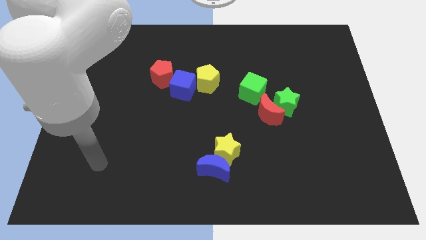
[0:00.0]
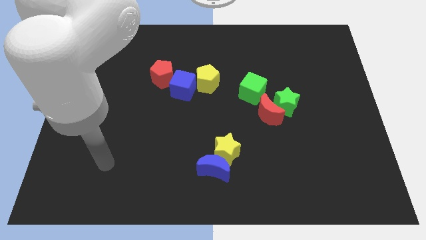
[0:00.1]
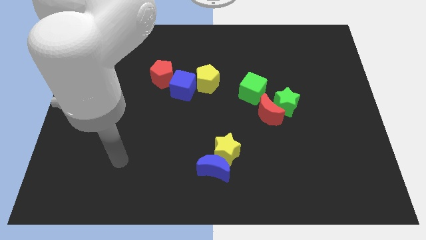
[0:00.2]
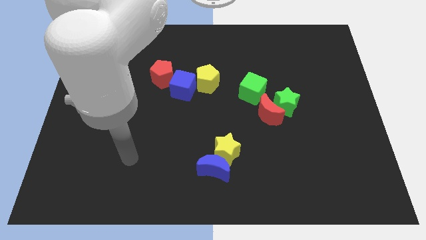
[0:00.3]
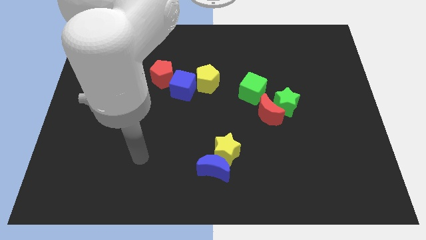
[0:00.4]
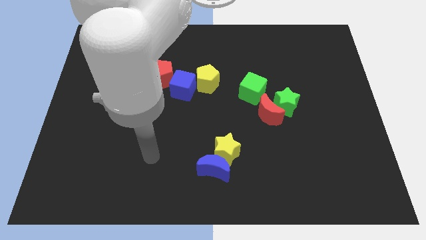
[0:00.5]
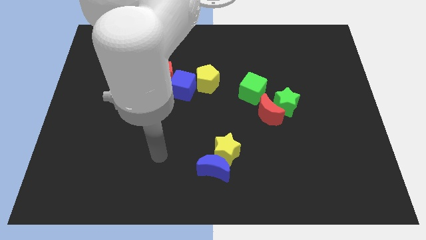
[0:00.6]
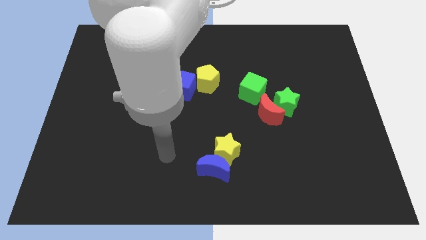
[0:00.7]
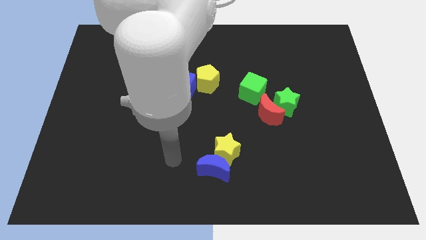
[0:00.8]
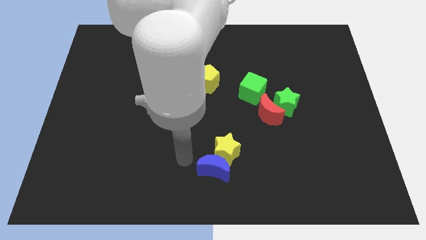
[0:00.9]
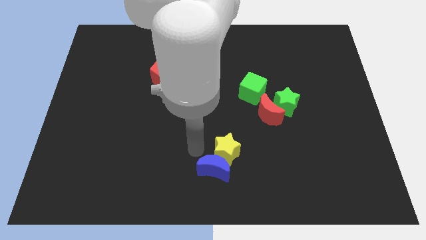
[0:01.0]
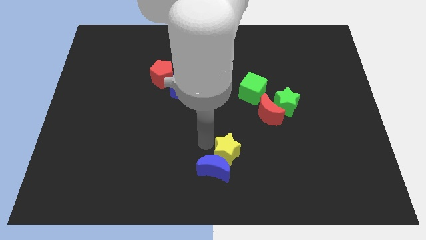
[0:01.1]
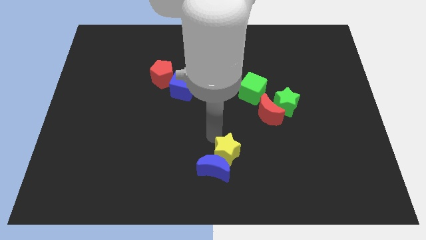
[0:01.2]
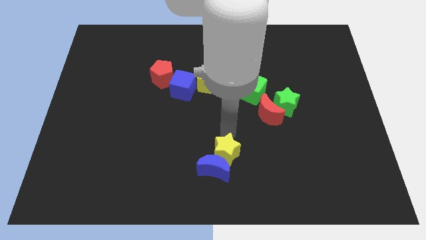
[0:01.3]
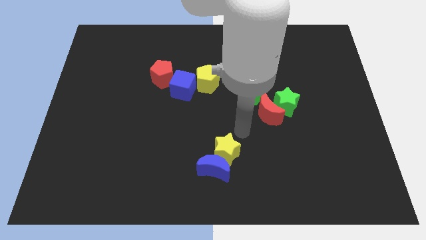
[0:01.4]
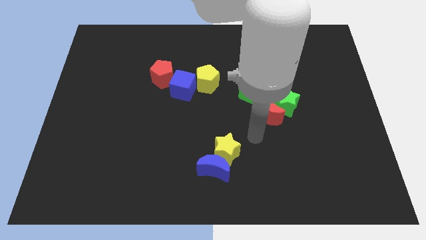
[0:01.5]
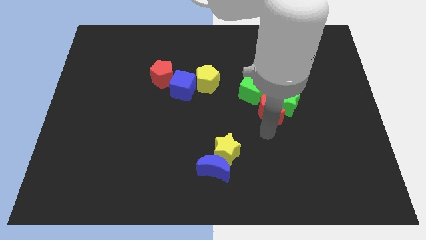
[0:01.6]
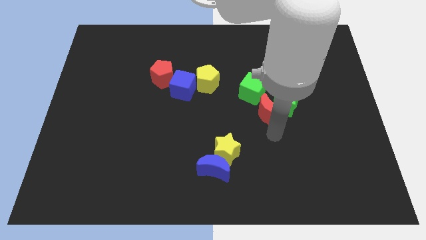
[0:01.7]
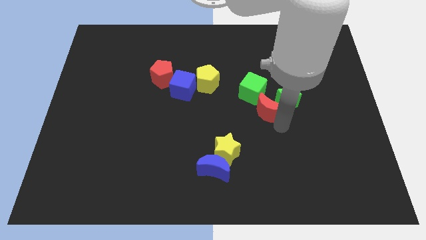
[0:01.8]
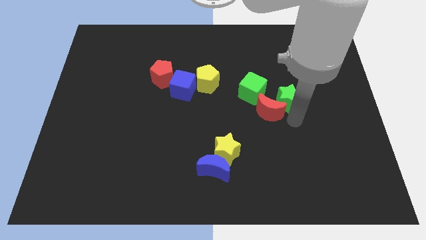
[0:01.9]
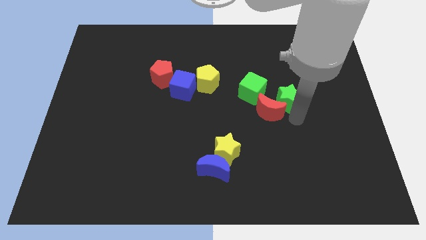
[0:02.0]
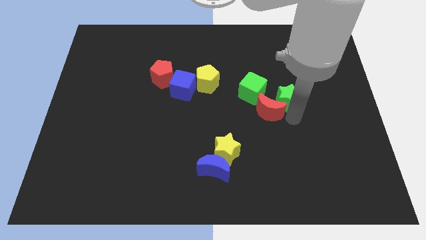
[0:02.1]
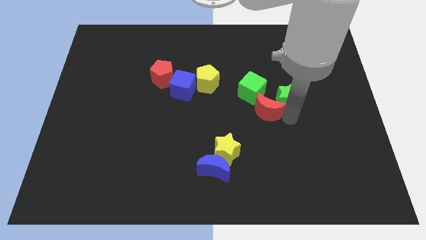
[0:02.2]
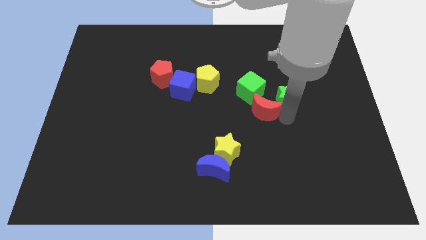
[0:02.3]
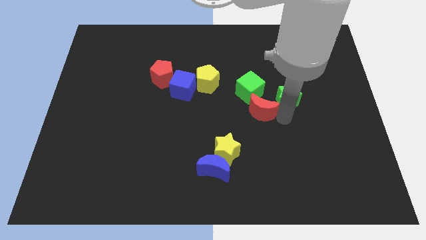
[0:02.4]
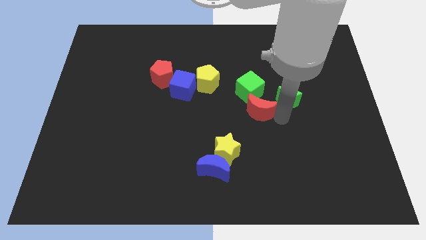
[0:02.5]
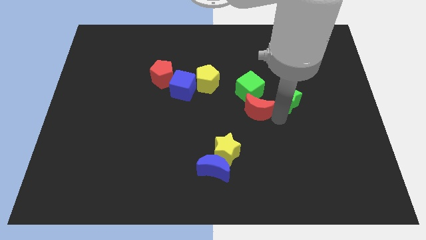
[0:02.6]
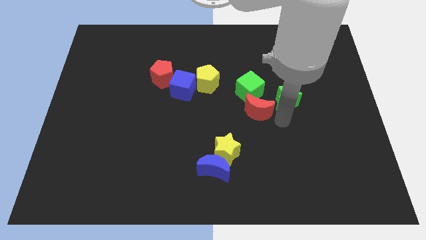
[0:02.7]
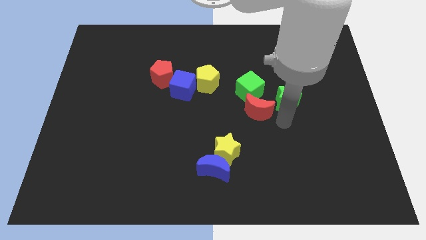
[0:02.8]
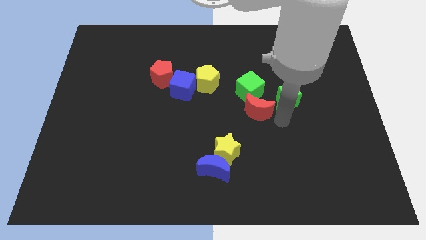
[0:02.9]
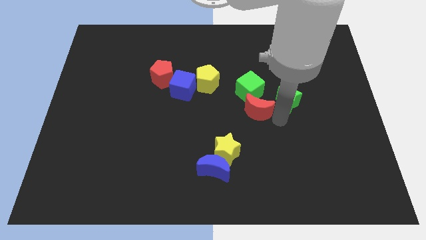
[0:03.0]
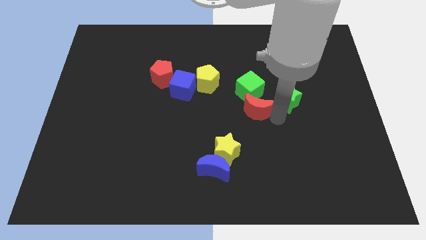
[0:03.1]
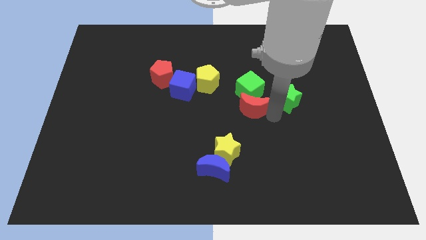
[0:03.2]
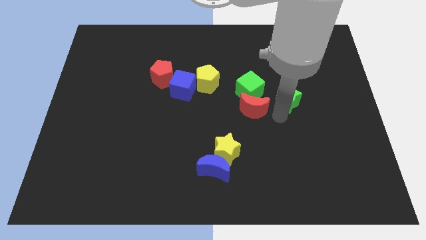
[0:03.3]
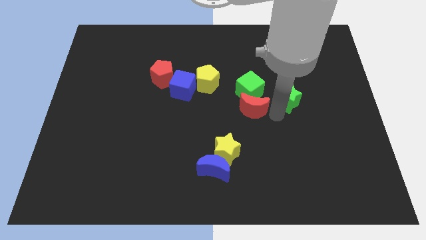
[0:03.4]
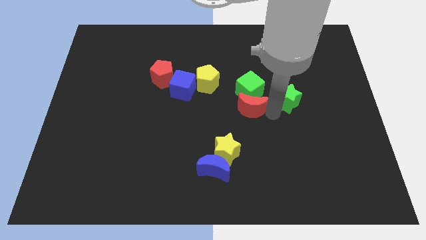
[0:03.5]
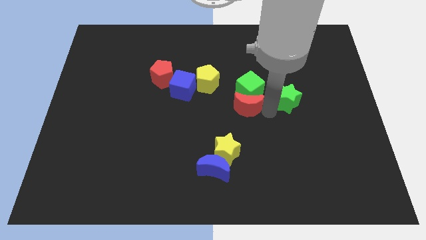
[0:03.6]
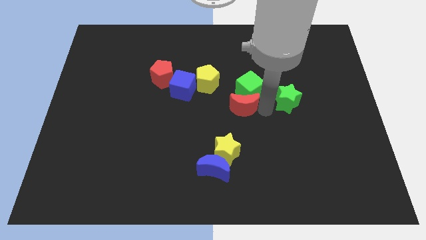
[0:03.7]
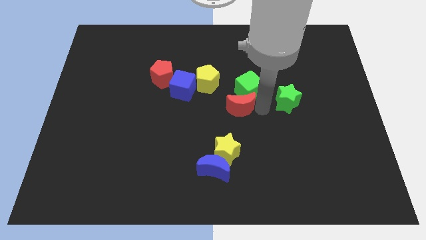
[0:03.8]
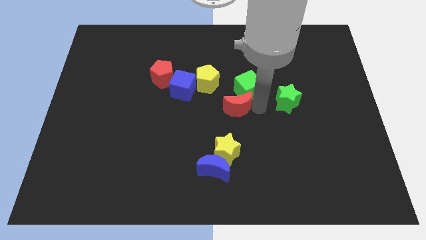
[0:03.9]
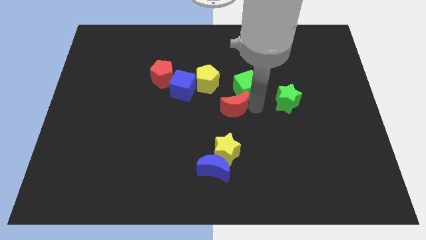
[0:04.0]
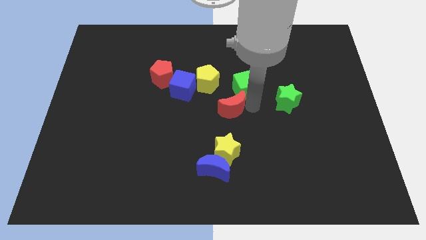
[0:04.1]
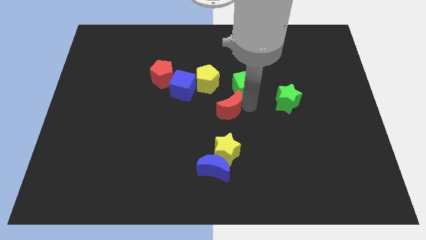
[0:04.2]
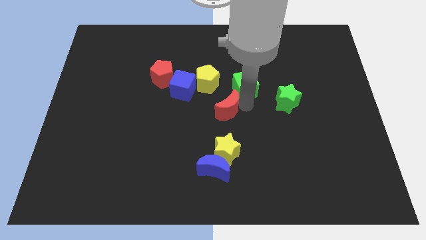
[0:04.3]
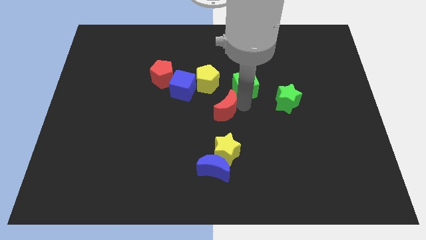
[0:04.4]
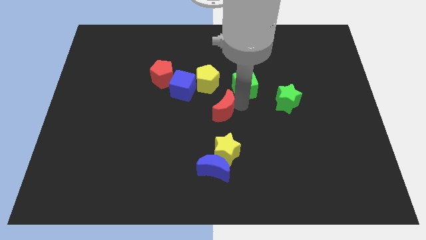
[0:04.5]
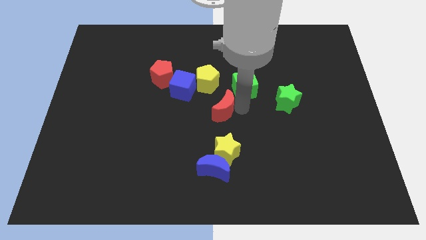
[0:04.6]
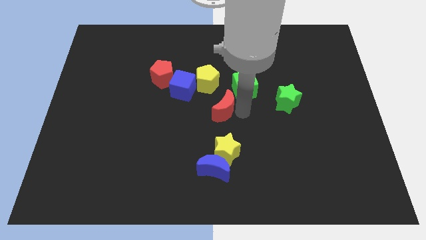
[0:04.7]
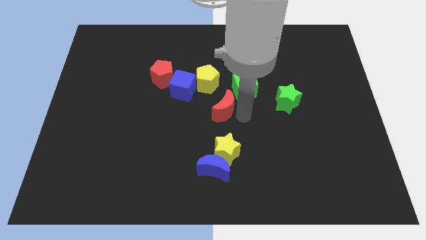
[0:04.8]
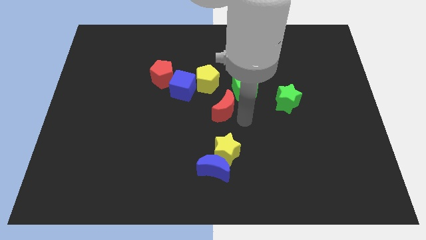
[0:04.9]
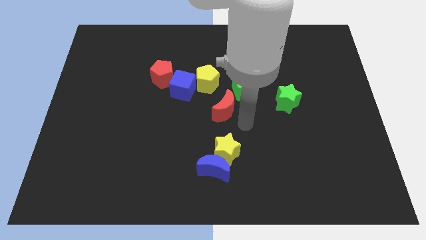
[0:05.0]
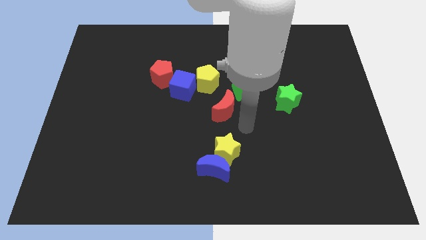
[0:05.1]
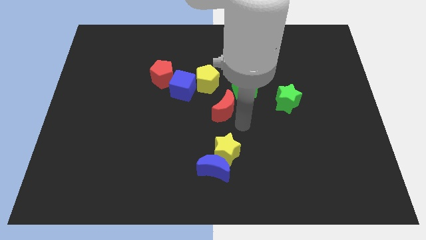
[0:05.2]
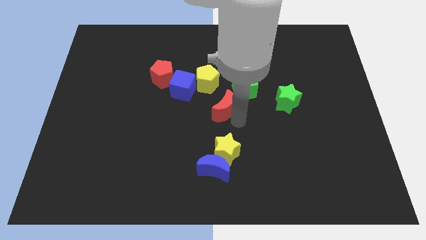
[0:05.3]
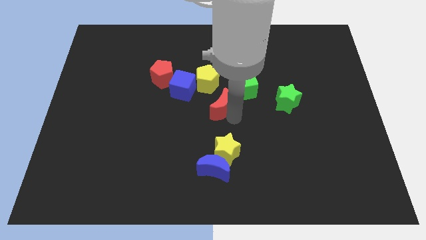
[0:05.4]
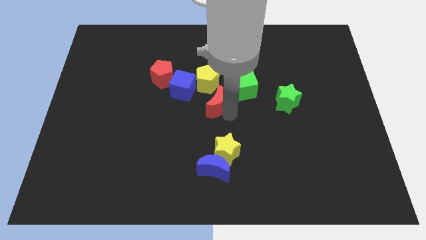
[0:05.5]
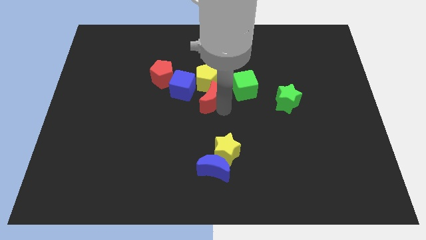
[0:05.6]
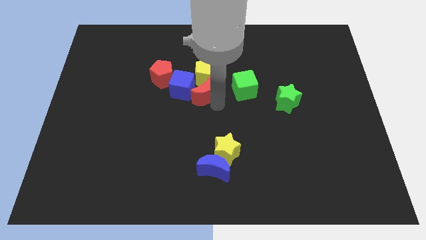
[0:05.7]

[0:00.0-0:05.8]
push the red moon close to the blue cube

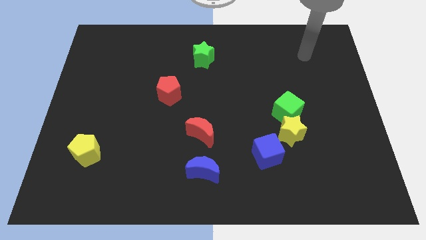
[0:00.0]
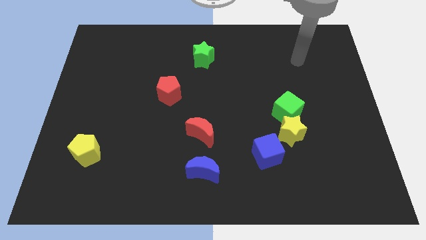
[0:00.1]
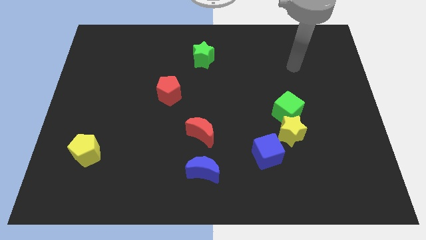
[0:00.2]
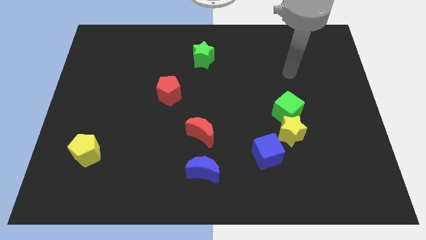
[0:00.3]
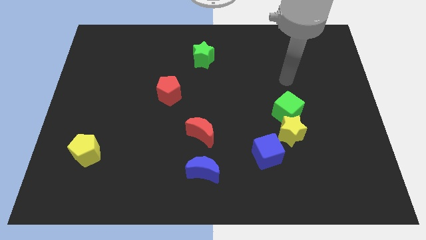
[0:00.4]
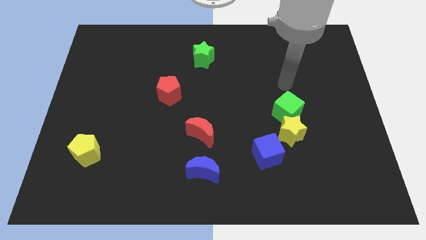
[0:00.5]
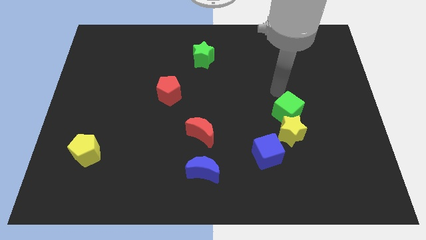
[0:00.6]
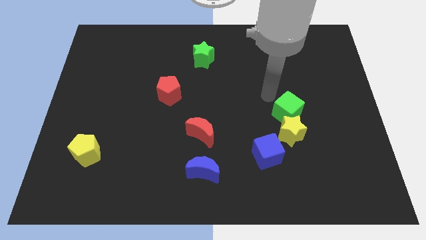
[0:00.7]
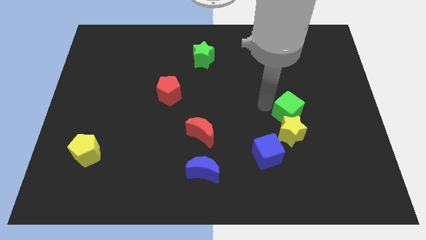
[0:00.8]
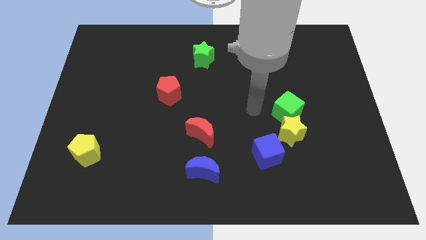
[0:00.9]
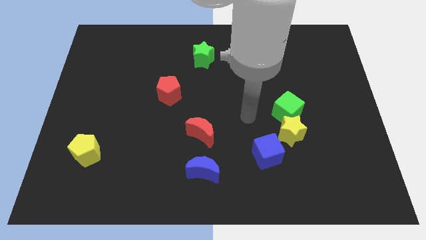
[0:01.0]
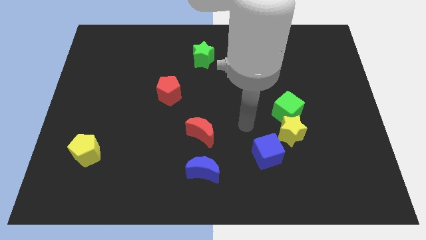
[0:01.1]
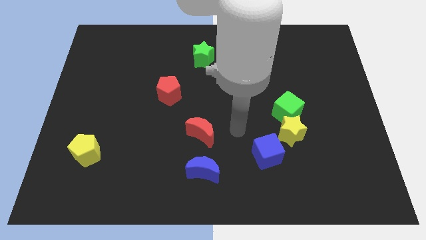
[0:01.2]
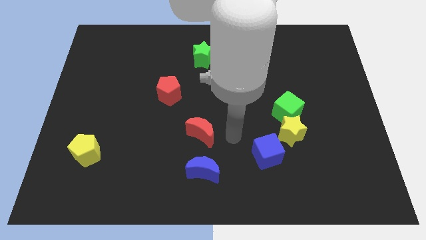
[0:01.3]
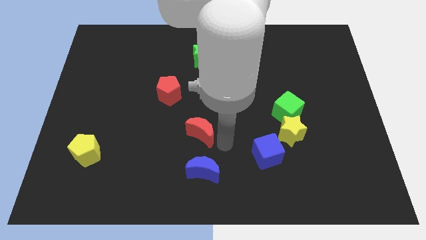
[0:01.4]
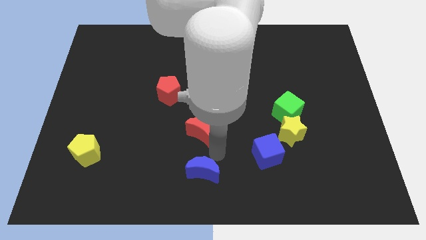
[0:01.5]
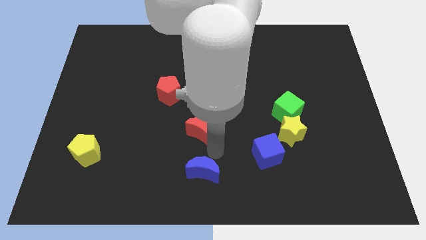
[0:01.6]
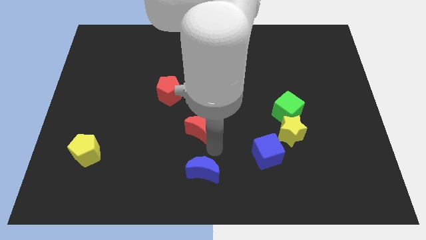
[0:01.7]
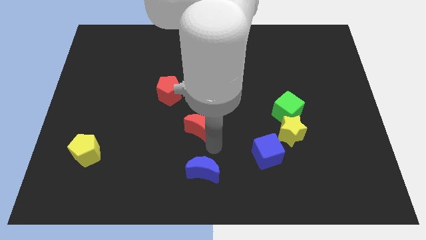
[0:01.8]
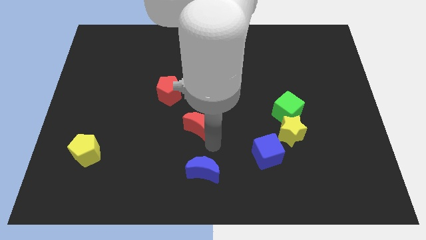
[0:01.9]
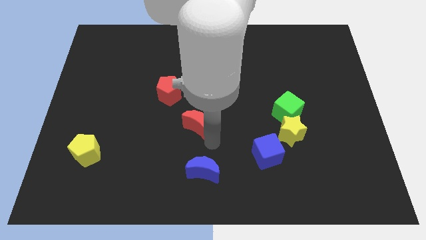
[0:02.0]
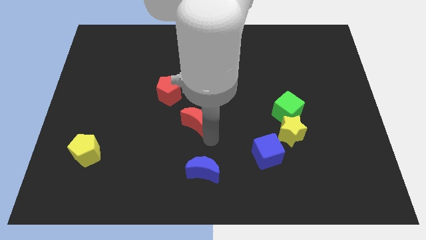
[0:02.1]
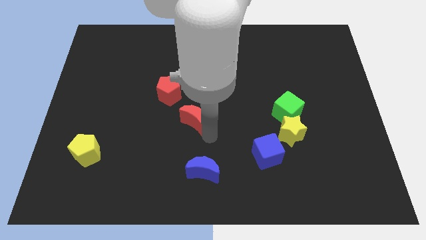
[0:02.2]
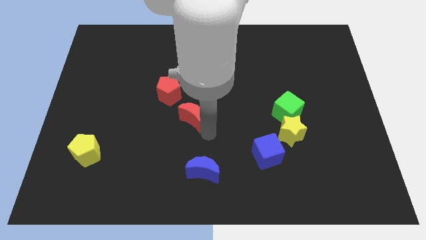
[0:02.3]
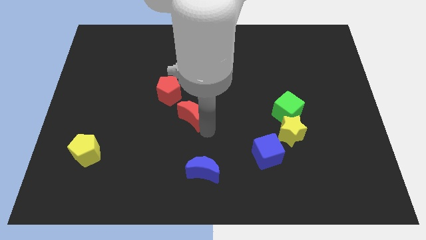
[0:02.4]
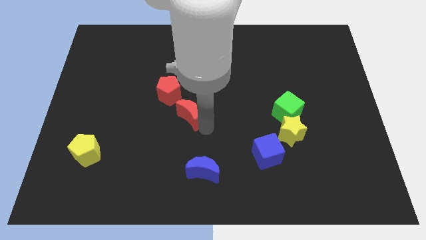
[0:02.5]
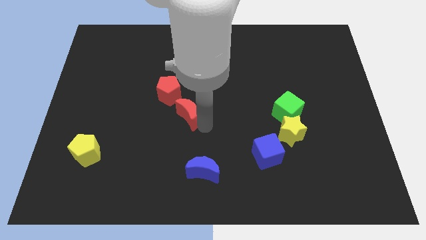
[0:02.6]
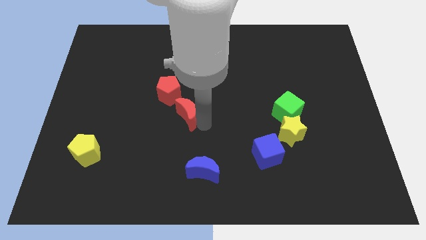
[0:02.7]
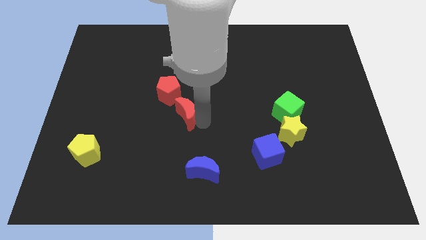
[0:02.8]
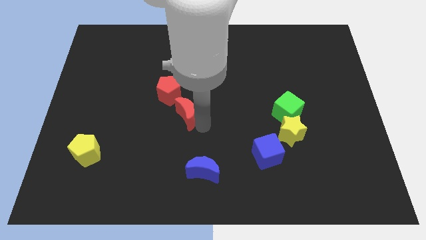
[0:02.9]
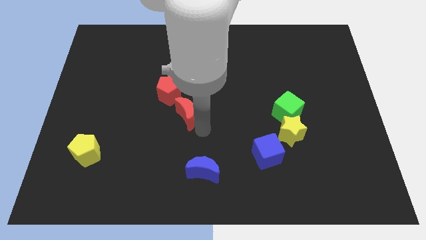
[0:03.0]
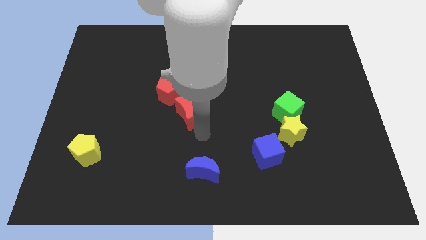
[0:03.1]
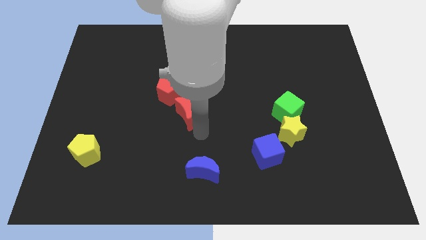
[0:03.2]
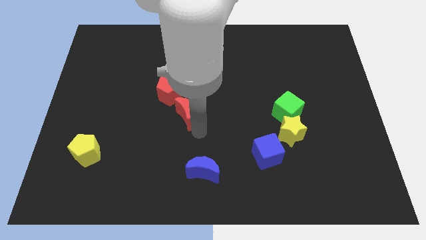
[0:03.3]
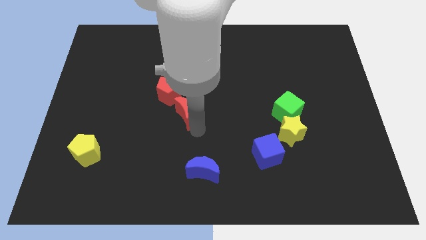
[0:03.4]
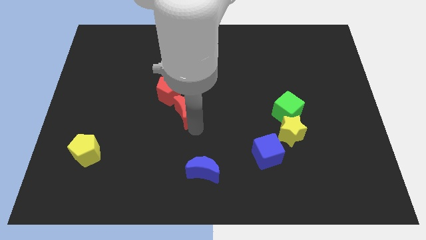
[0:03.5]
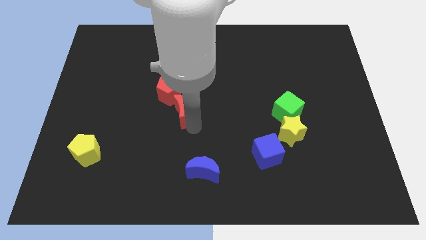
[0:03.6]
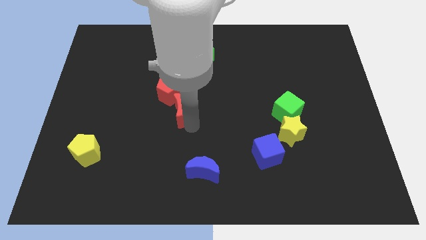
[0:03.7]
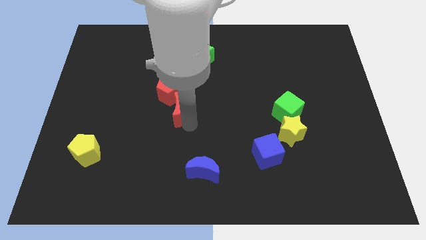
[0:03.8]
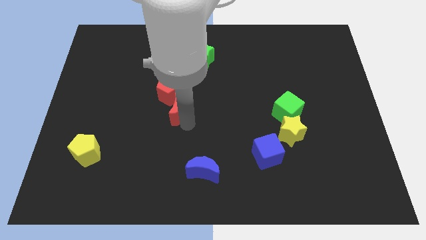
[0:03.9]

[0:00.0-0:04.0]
push the red moon next to the red pentagon
